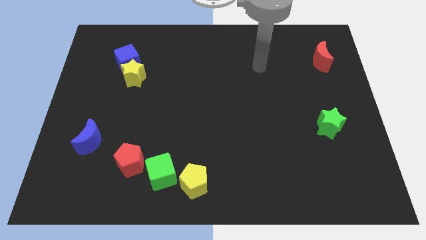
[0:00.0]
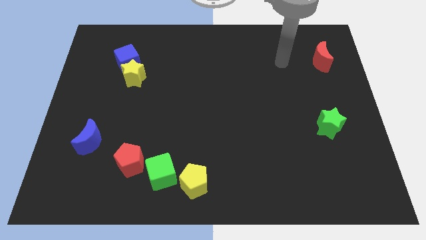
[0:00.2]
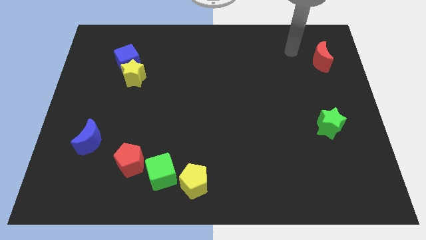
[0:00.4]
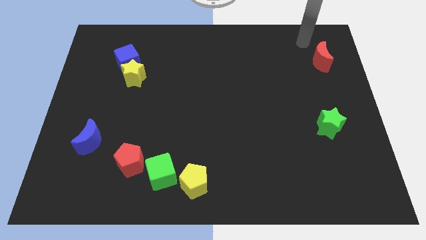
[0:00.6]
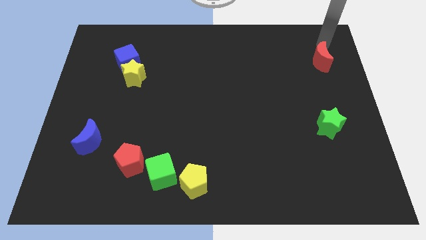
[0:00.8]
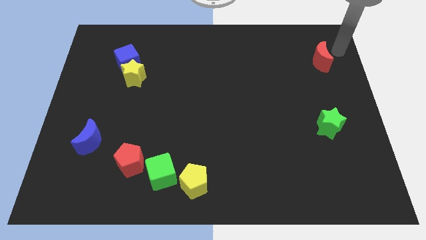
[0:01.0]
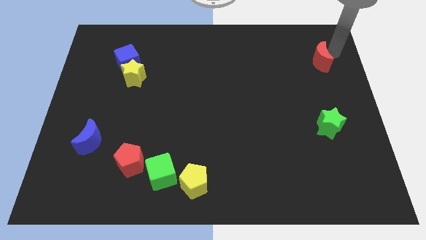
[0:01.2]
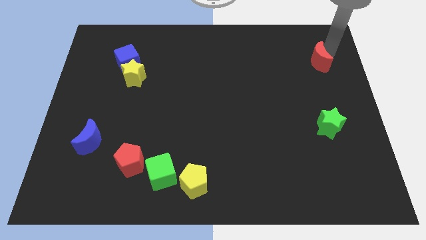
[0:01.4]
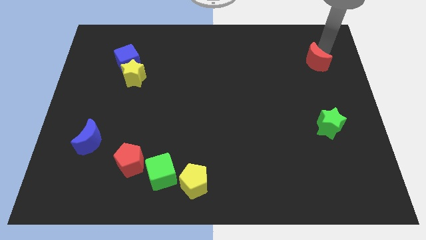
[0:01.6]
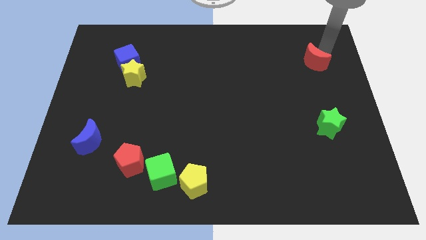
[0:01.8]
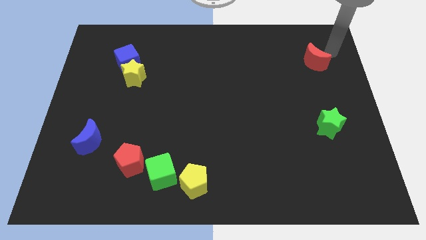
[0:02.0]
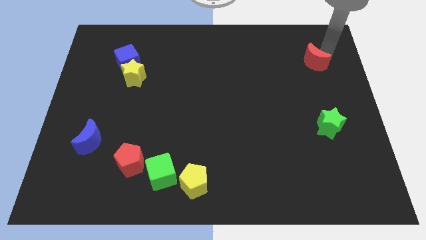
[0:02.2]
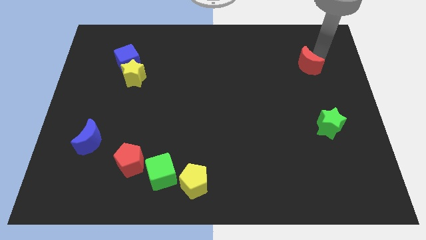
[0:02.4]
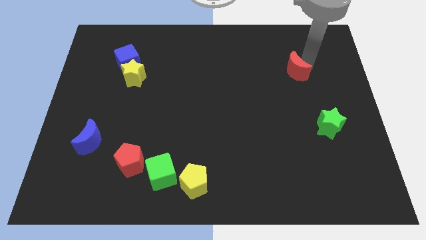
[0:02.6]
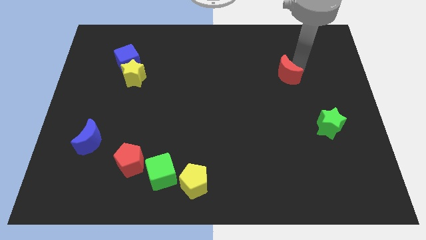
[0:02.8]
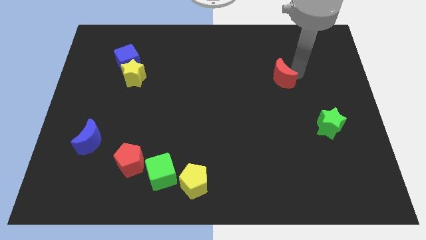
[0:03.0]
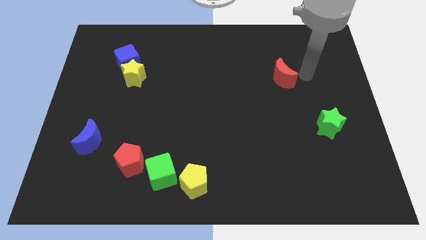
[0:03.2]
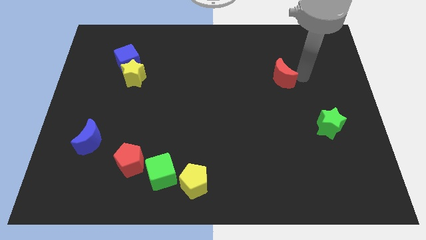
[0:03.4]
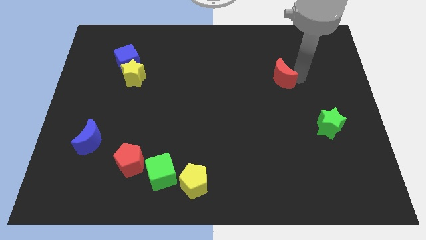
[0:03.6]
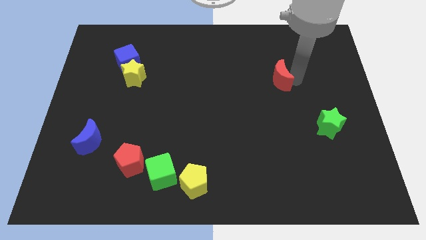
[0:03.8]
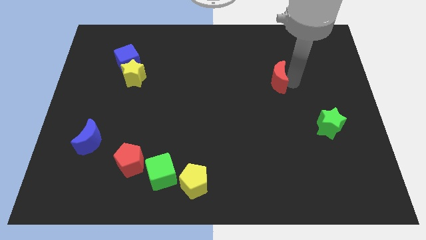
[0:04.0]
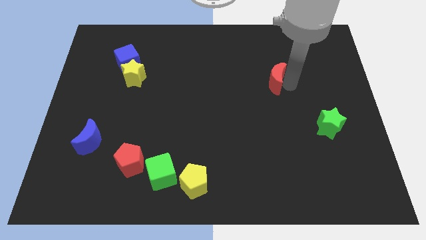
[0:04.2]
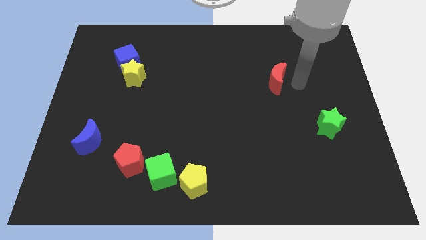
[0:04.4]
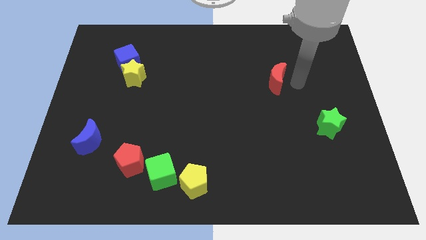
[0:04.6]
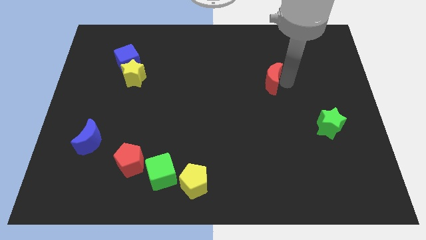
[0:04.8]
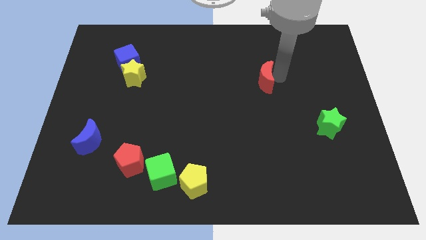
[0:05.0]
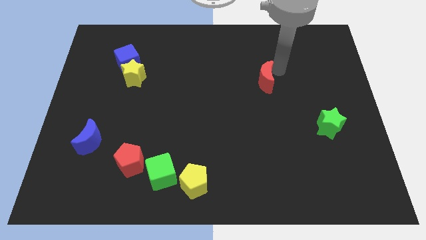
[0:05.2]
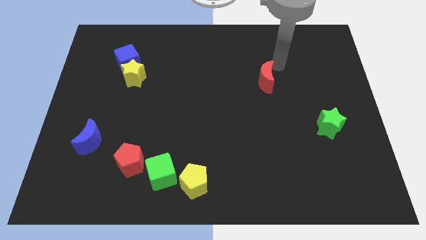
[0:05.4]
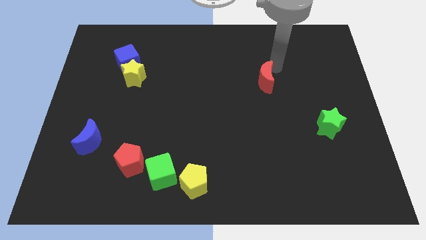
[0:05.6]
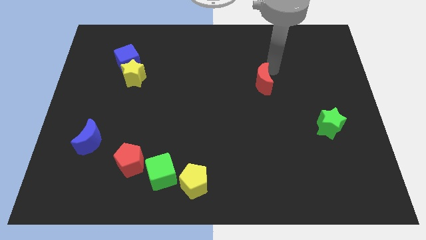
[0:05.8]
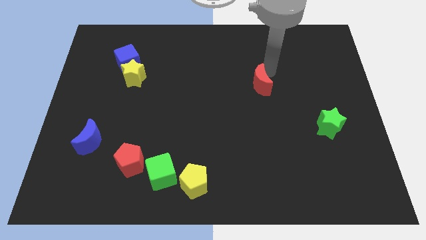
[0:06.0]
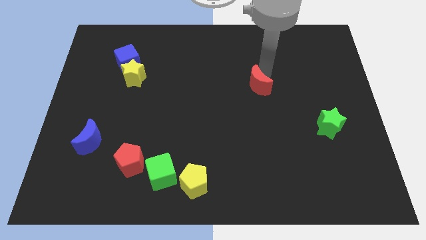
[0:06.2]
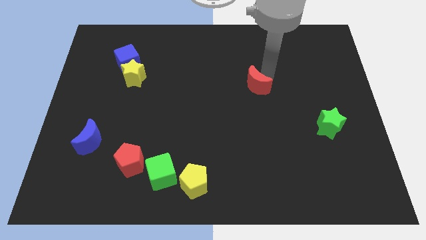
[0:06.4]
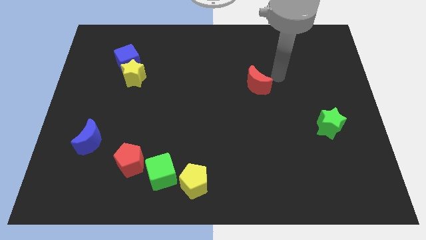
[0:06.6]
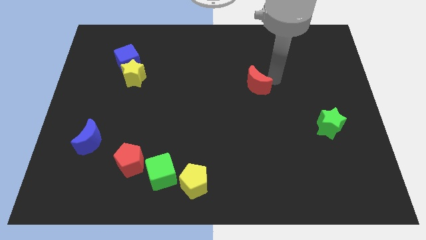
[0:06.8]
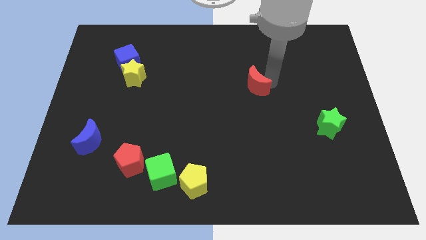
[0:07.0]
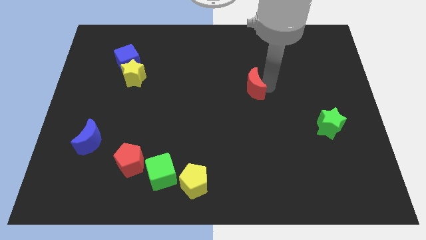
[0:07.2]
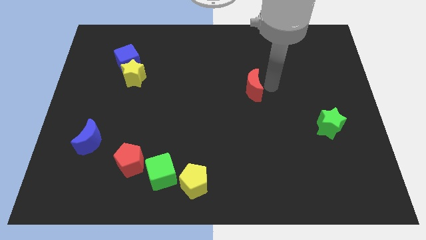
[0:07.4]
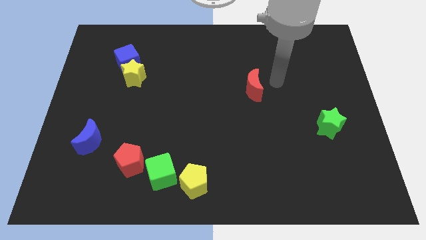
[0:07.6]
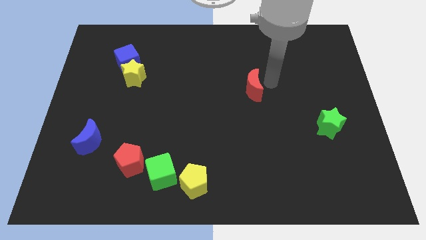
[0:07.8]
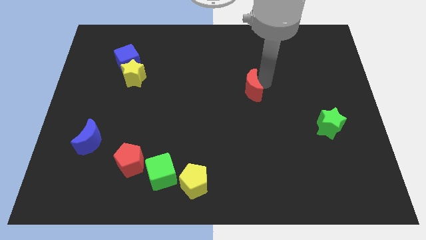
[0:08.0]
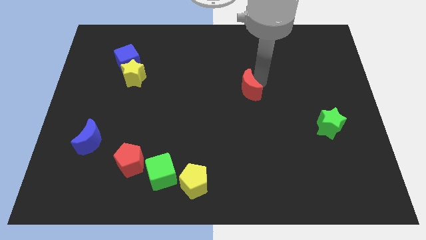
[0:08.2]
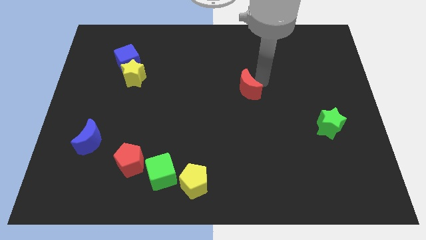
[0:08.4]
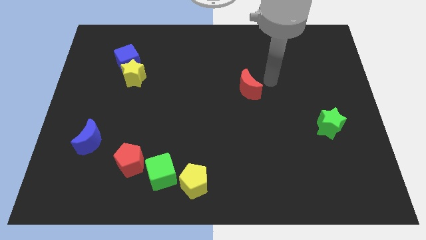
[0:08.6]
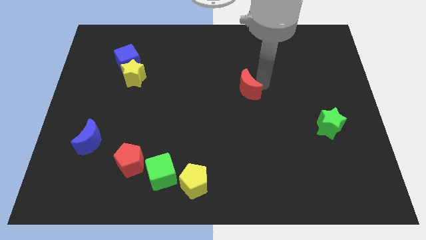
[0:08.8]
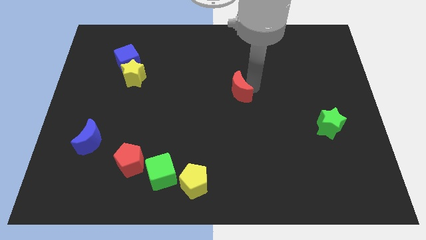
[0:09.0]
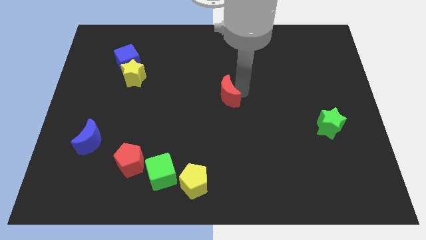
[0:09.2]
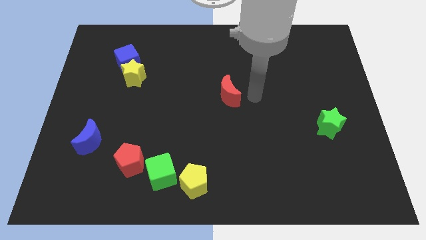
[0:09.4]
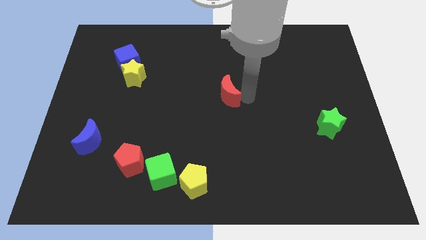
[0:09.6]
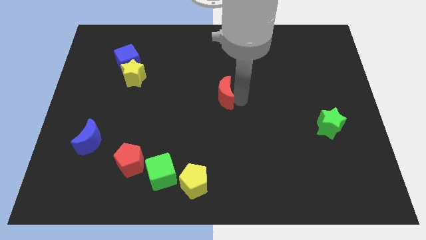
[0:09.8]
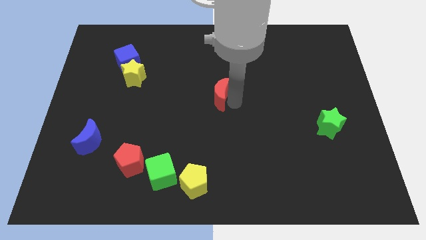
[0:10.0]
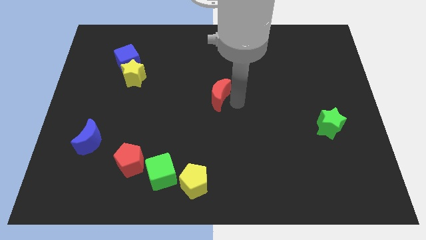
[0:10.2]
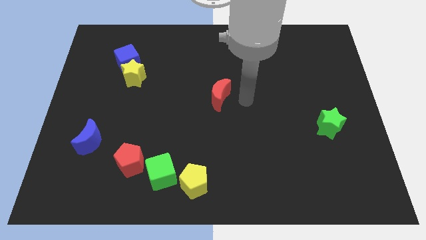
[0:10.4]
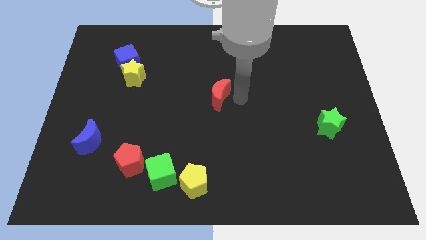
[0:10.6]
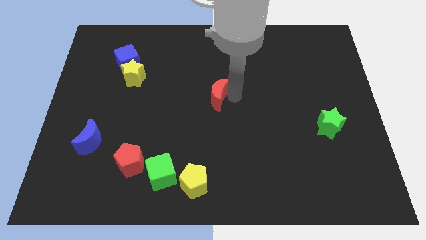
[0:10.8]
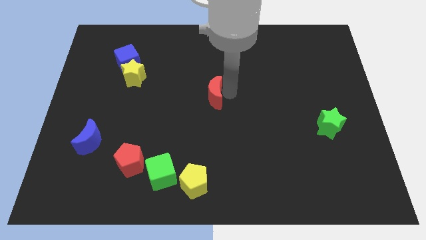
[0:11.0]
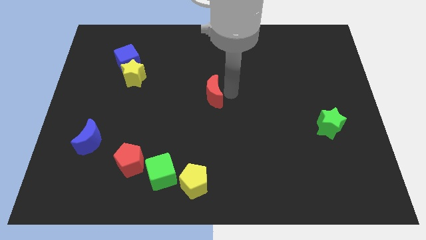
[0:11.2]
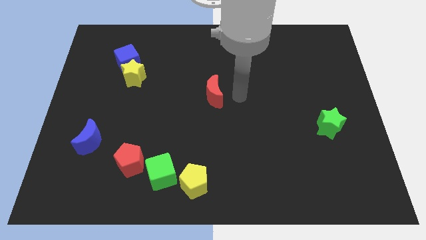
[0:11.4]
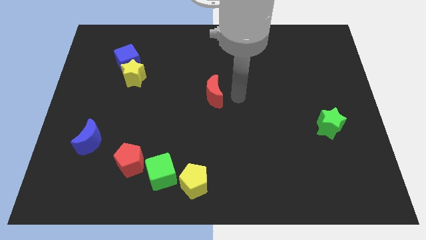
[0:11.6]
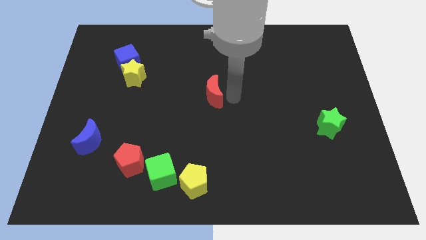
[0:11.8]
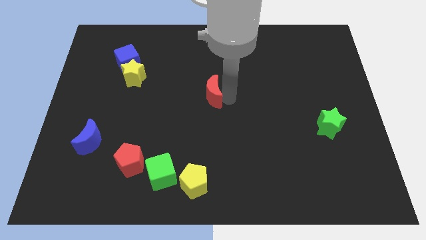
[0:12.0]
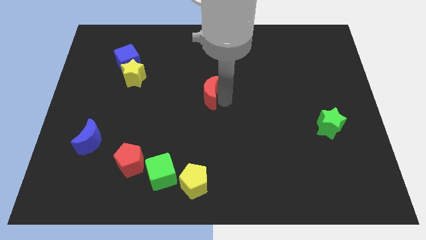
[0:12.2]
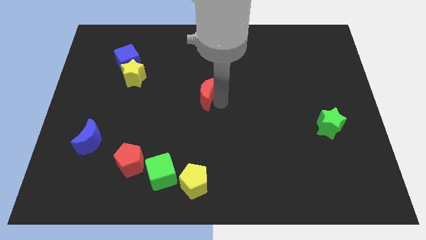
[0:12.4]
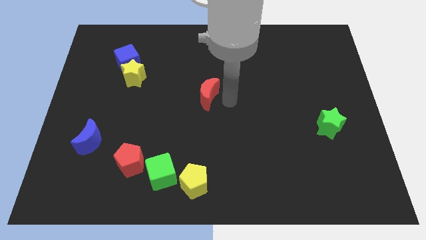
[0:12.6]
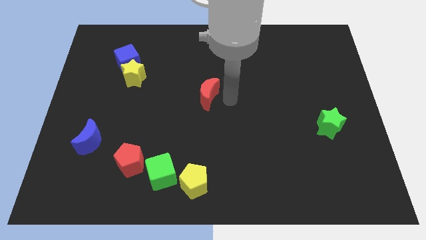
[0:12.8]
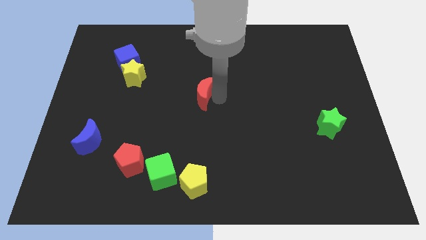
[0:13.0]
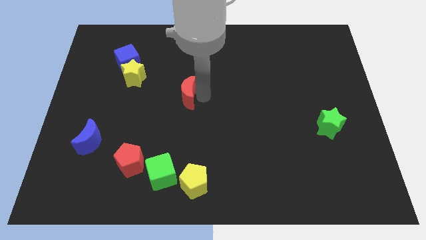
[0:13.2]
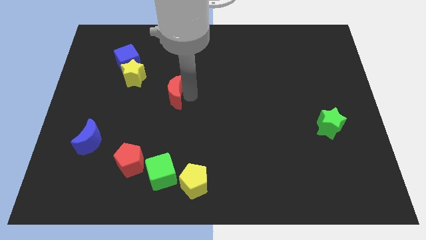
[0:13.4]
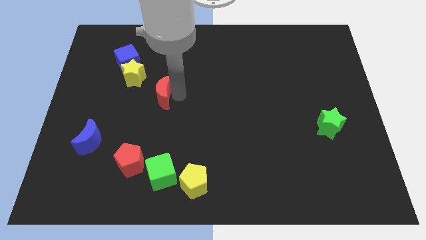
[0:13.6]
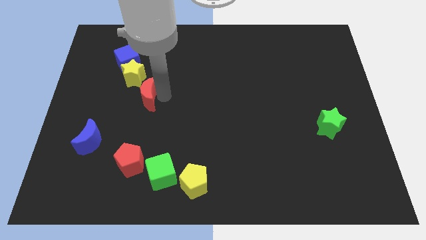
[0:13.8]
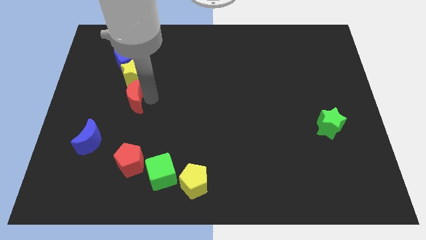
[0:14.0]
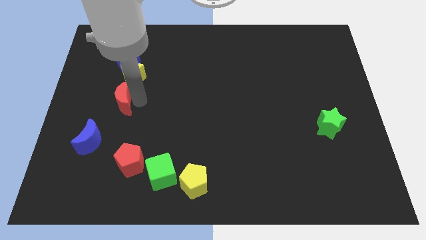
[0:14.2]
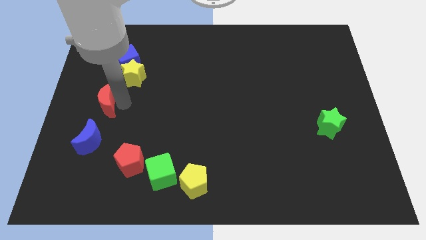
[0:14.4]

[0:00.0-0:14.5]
move the red moon to the left side of the board
